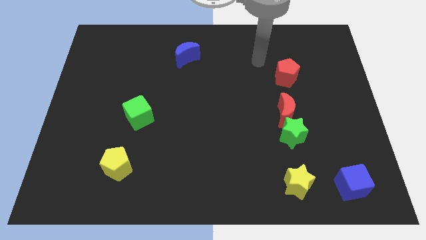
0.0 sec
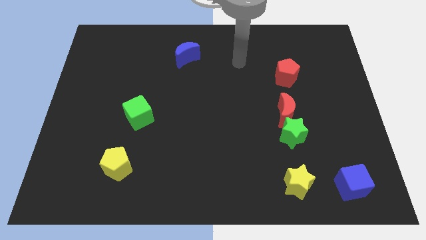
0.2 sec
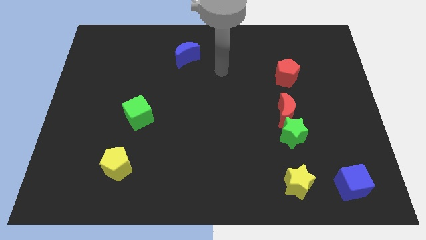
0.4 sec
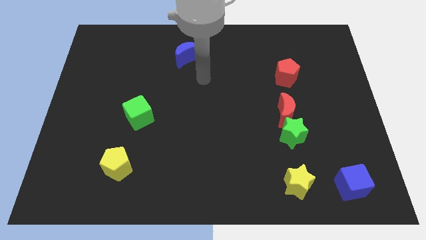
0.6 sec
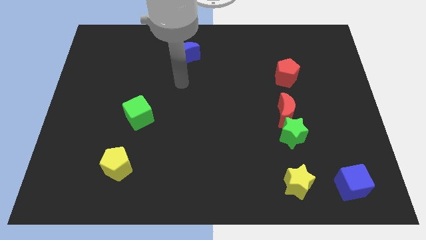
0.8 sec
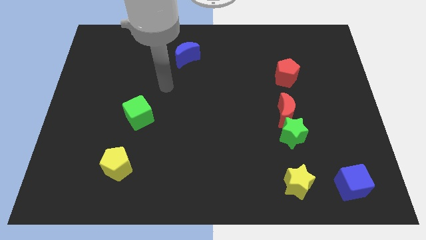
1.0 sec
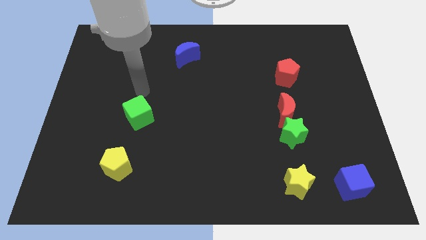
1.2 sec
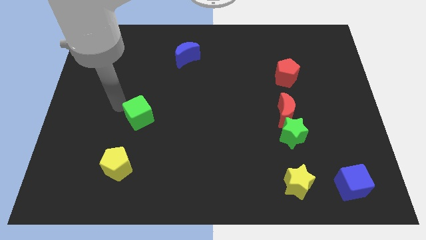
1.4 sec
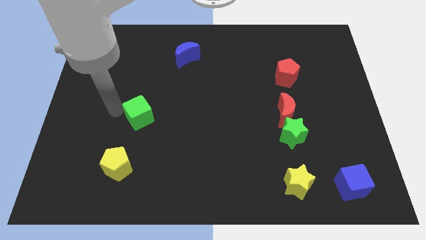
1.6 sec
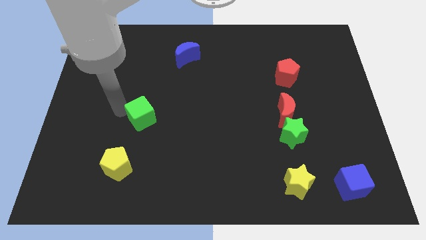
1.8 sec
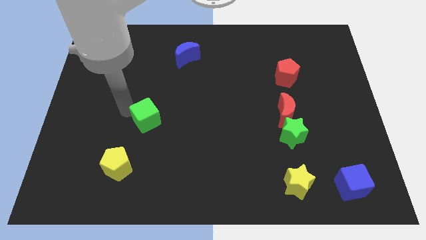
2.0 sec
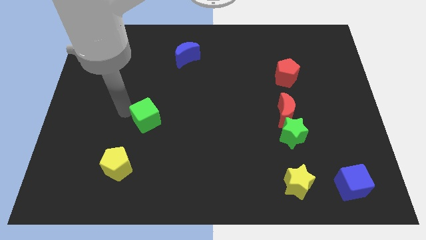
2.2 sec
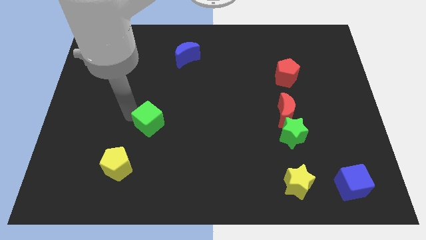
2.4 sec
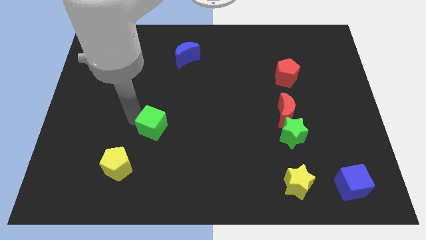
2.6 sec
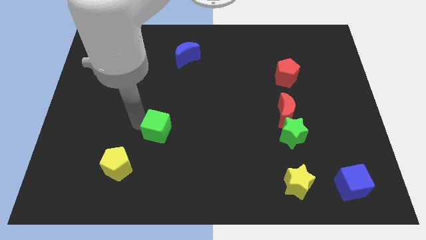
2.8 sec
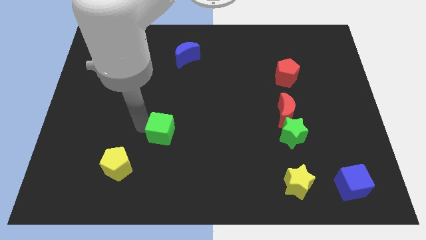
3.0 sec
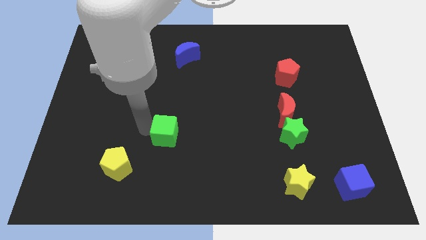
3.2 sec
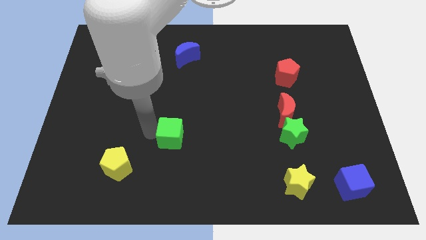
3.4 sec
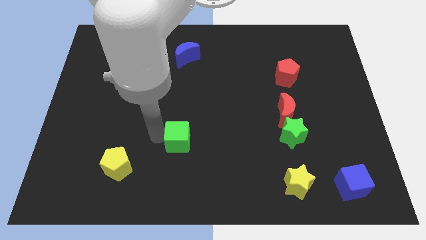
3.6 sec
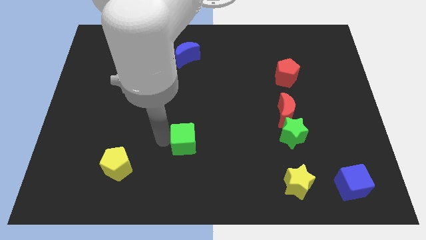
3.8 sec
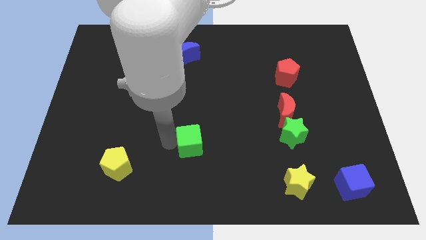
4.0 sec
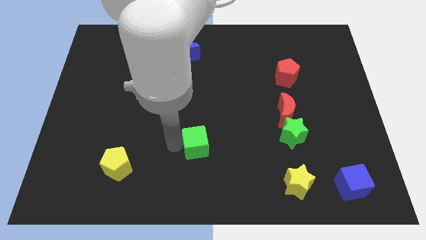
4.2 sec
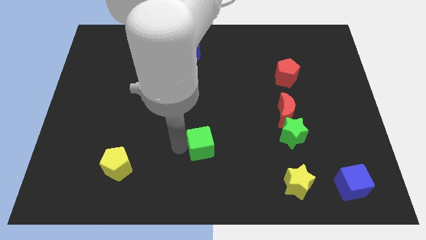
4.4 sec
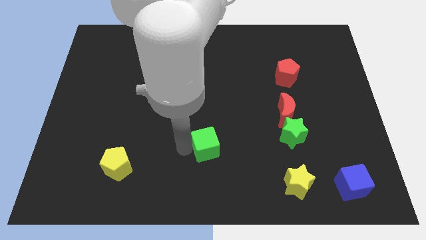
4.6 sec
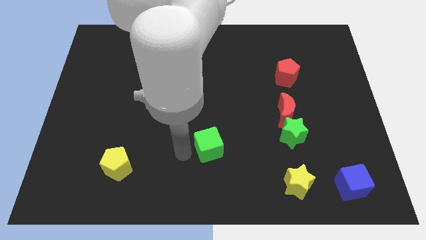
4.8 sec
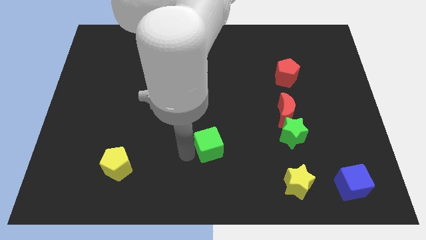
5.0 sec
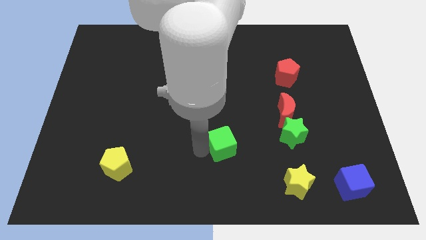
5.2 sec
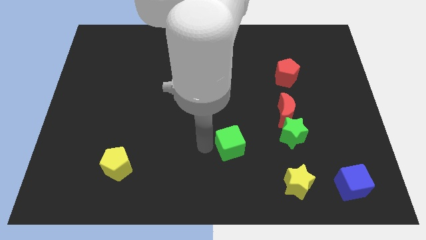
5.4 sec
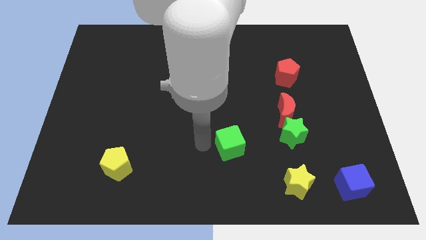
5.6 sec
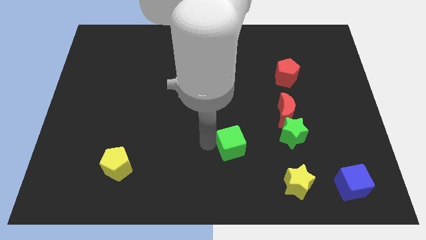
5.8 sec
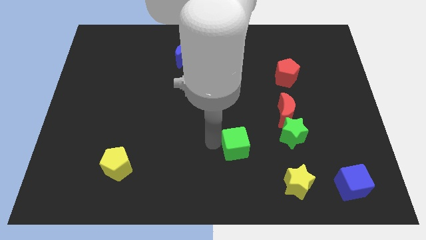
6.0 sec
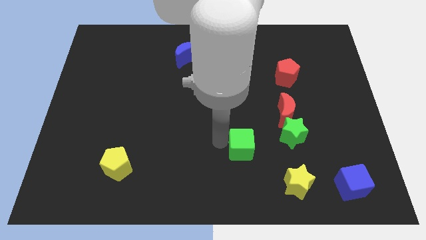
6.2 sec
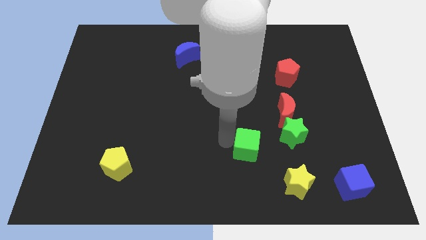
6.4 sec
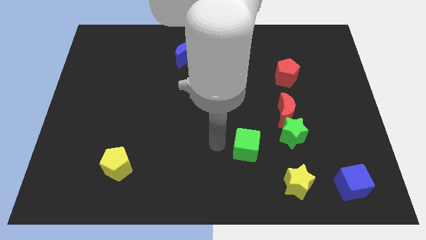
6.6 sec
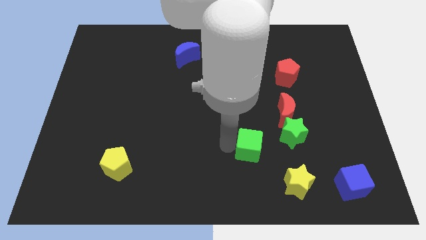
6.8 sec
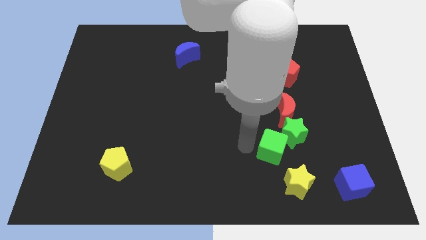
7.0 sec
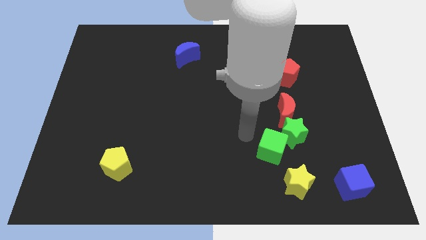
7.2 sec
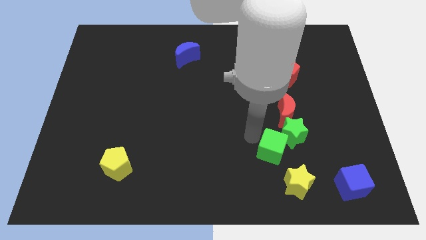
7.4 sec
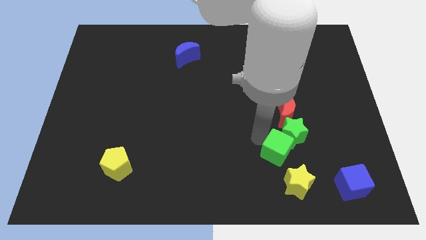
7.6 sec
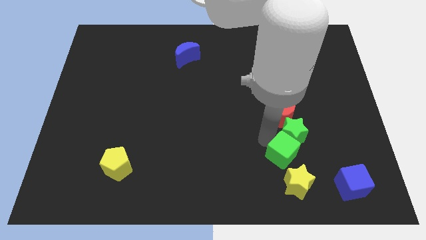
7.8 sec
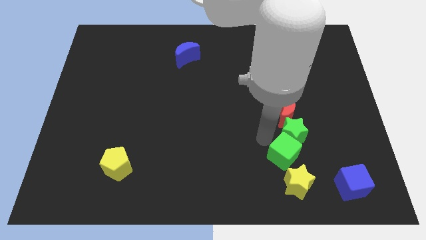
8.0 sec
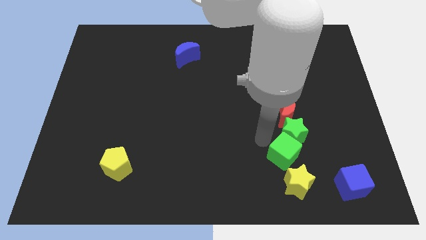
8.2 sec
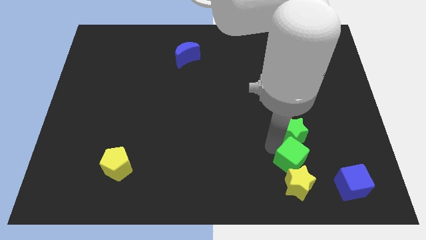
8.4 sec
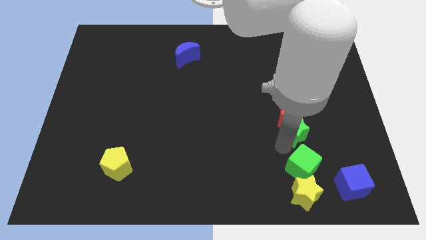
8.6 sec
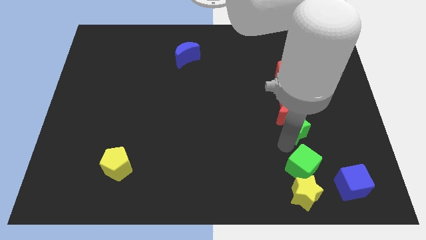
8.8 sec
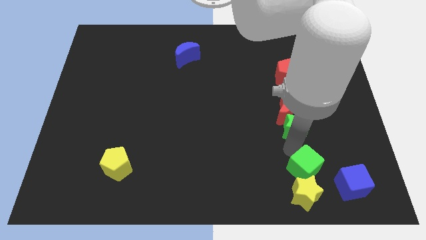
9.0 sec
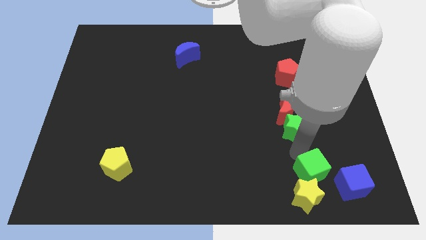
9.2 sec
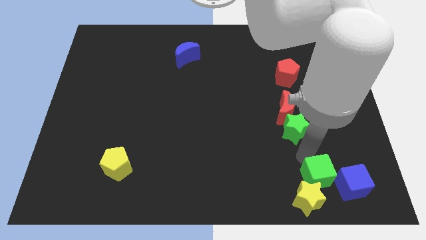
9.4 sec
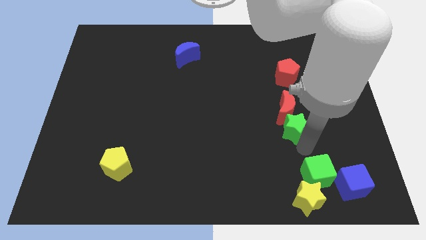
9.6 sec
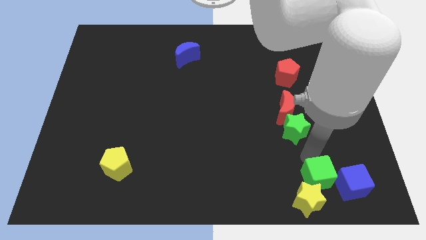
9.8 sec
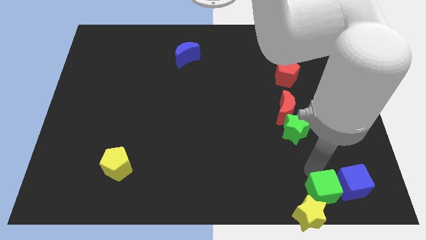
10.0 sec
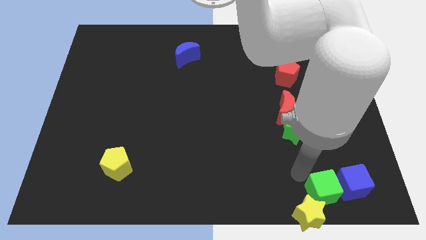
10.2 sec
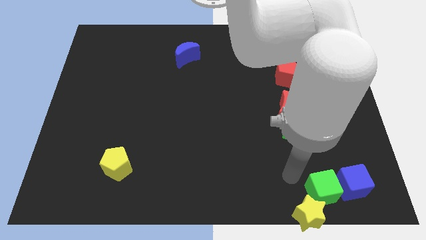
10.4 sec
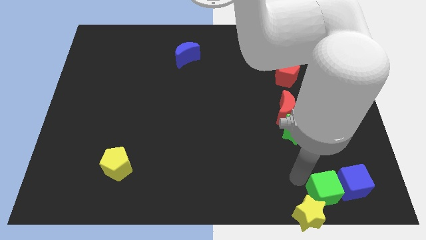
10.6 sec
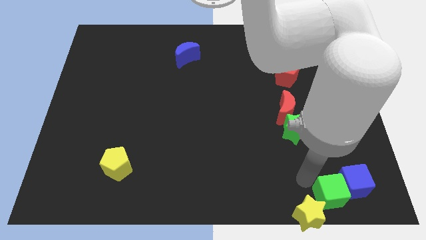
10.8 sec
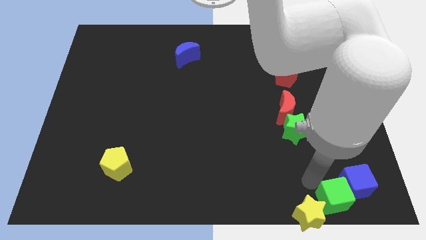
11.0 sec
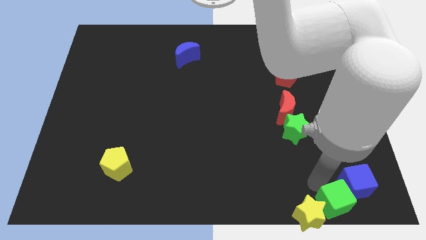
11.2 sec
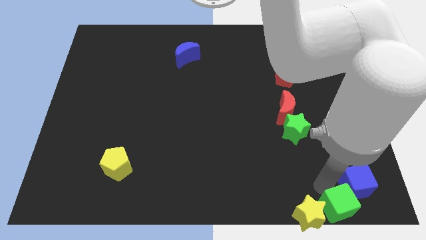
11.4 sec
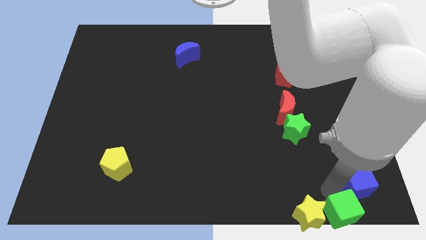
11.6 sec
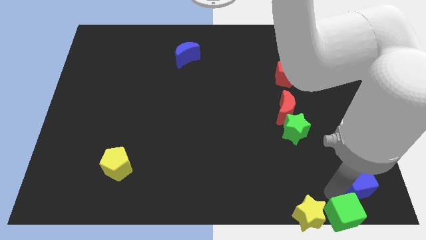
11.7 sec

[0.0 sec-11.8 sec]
put the green cube to the bottom right
